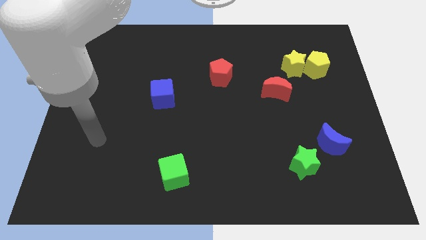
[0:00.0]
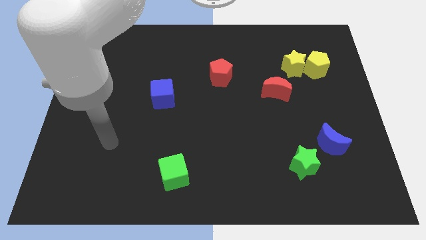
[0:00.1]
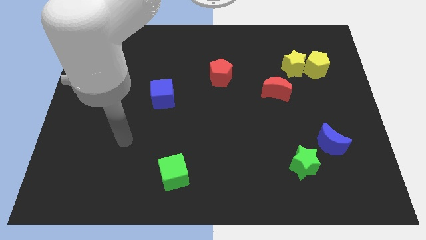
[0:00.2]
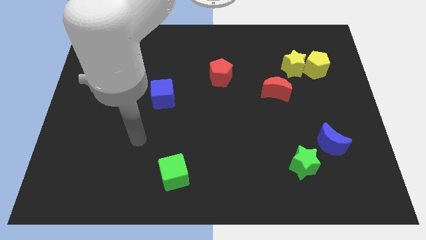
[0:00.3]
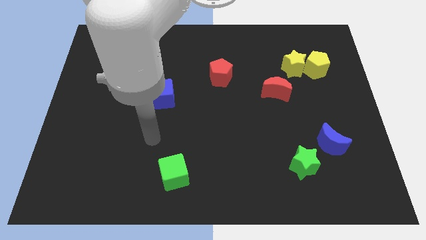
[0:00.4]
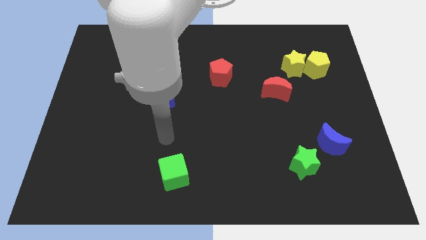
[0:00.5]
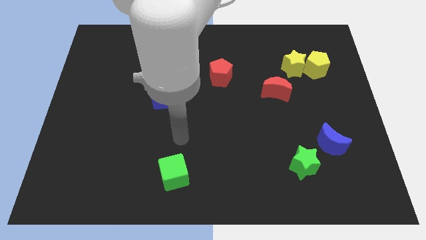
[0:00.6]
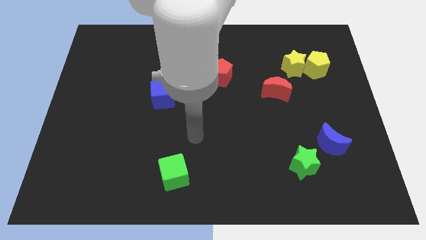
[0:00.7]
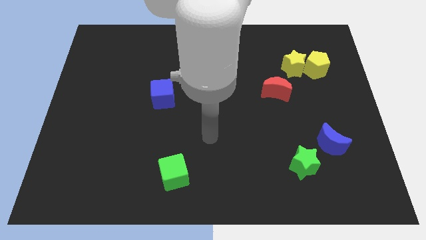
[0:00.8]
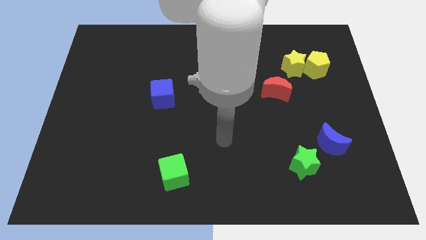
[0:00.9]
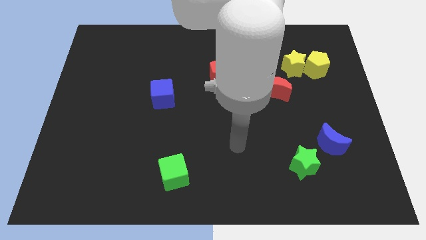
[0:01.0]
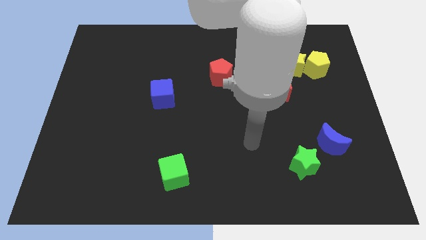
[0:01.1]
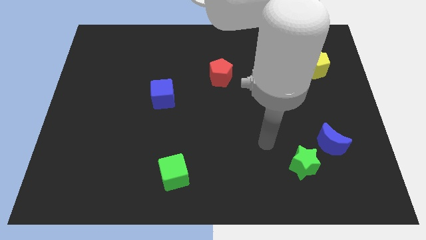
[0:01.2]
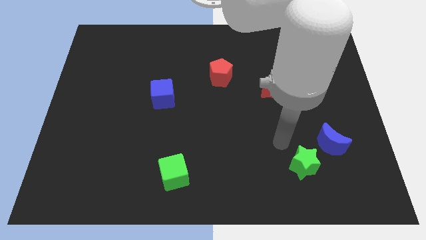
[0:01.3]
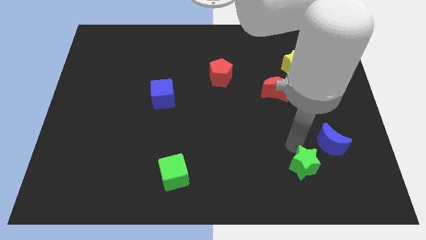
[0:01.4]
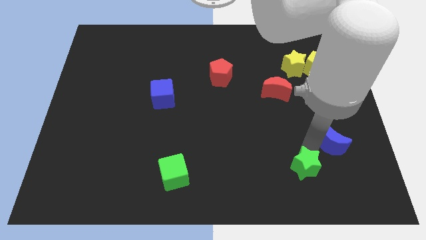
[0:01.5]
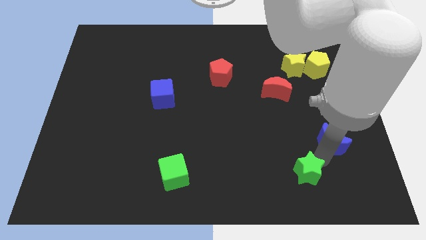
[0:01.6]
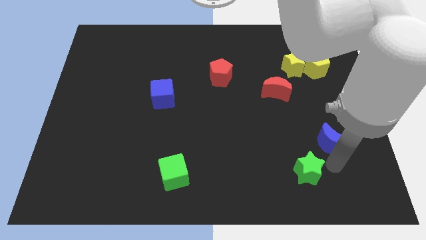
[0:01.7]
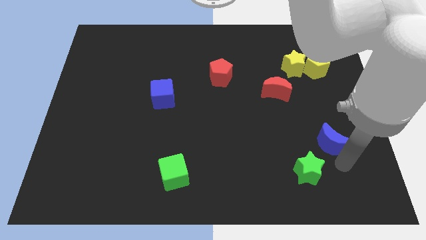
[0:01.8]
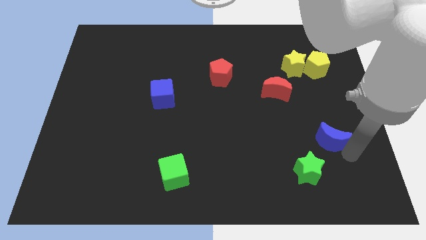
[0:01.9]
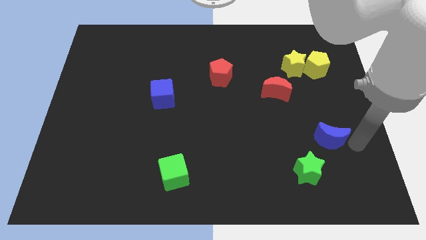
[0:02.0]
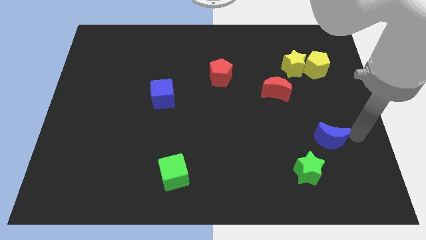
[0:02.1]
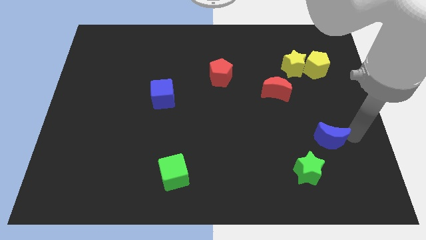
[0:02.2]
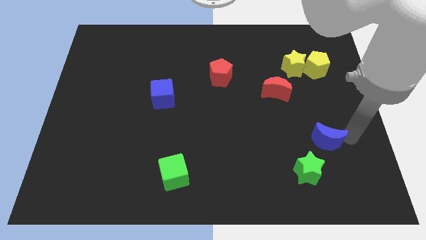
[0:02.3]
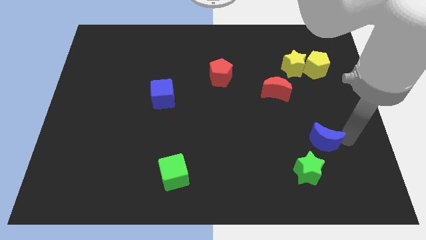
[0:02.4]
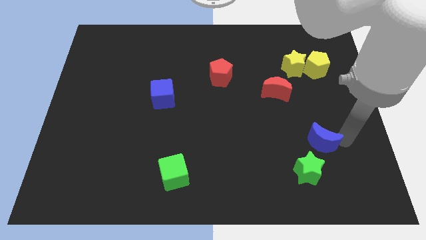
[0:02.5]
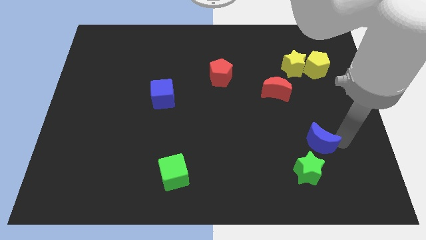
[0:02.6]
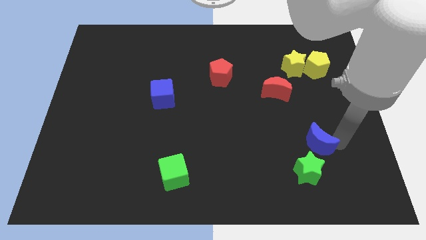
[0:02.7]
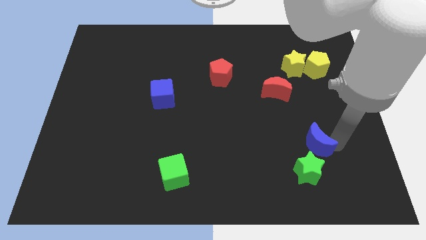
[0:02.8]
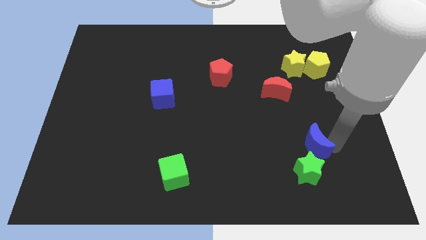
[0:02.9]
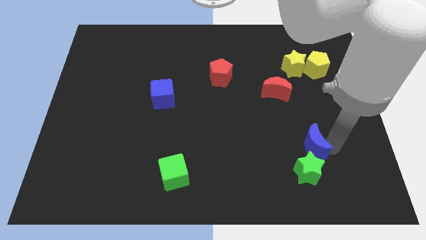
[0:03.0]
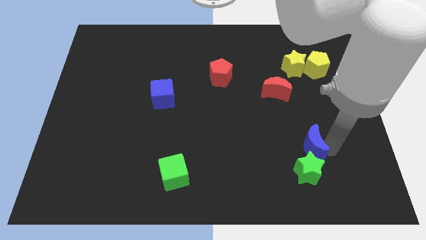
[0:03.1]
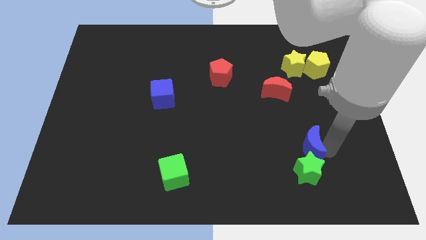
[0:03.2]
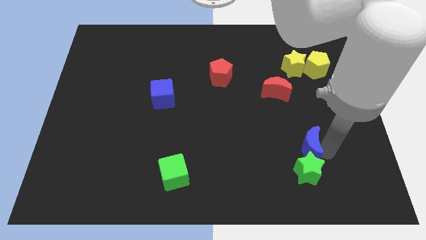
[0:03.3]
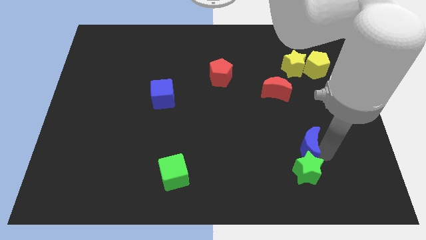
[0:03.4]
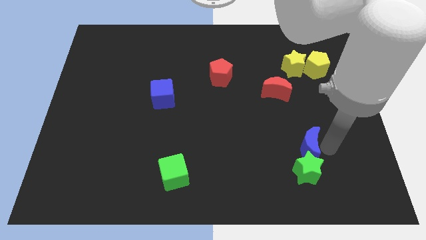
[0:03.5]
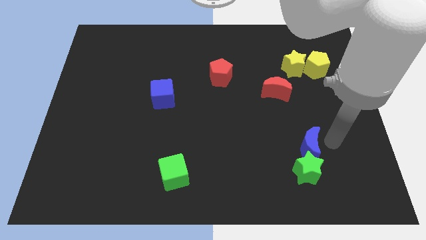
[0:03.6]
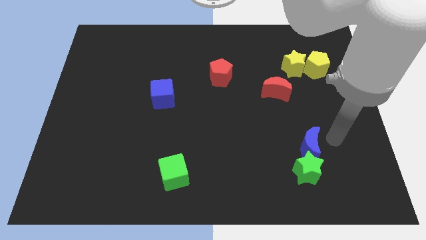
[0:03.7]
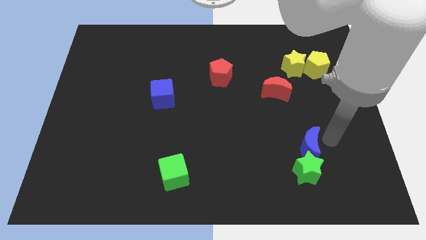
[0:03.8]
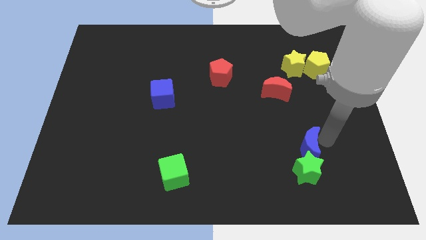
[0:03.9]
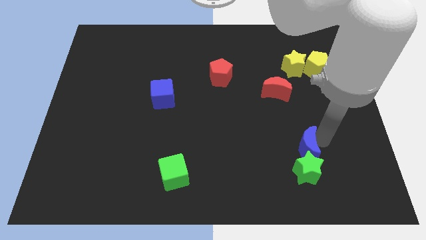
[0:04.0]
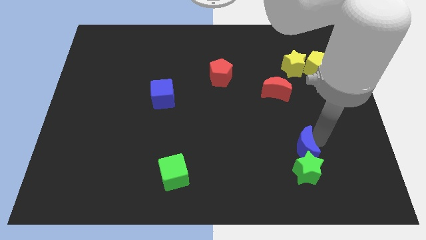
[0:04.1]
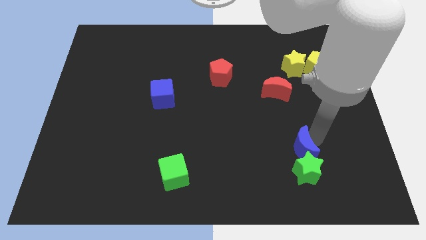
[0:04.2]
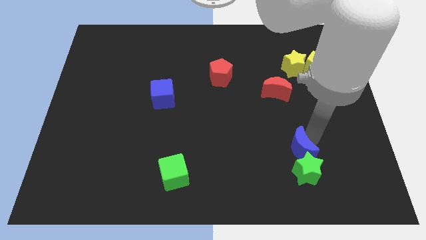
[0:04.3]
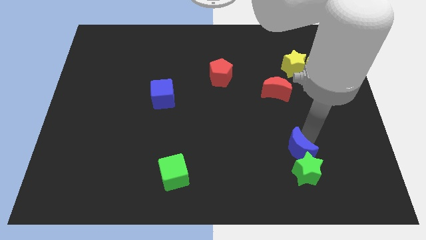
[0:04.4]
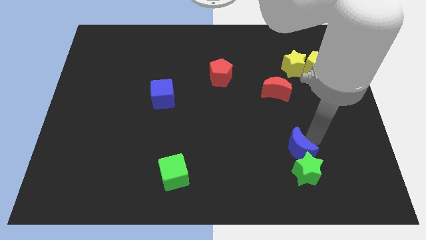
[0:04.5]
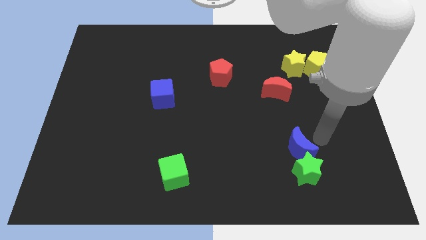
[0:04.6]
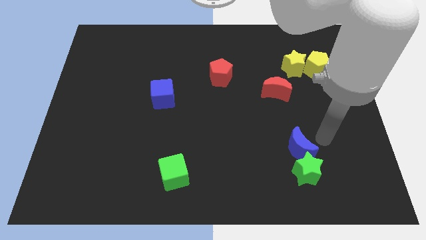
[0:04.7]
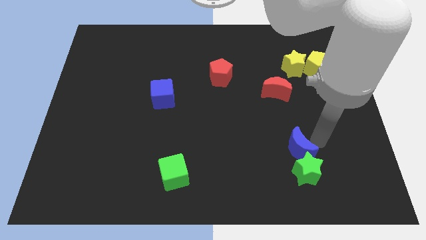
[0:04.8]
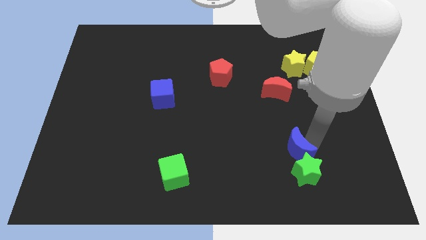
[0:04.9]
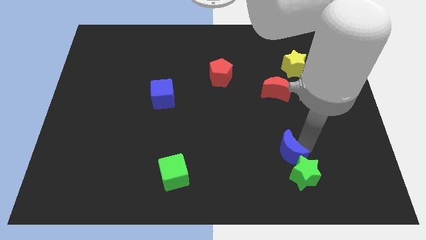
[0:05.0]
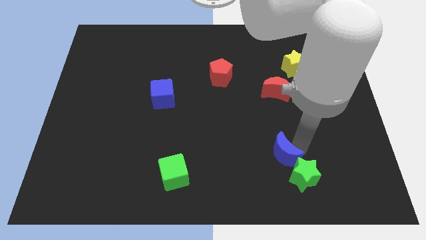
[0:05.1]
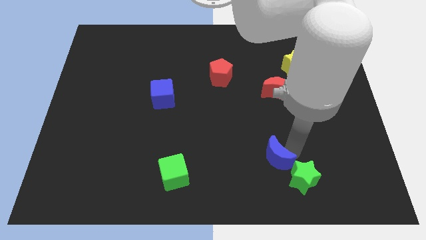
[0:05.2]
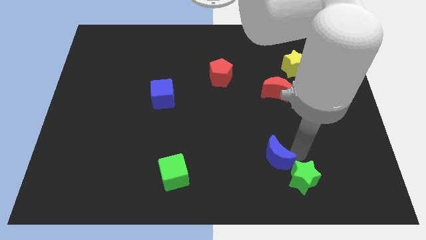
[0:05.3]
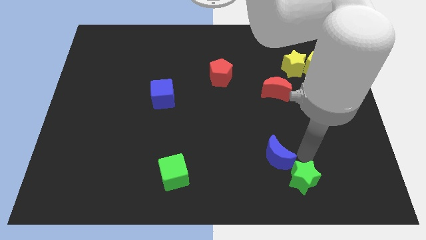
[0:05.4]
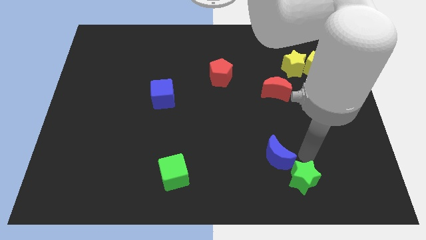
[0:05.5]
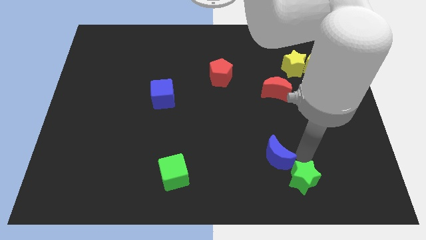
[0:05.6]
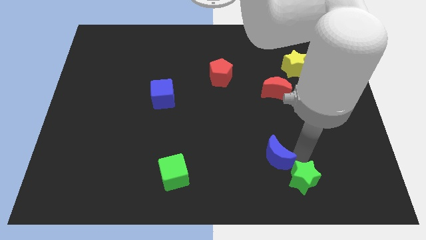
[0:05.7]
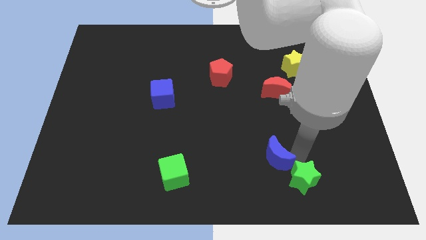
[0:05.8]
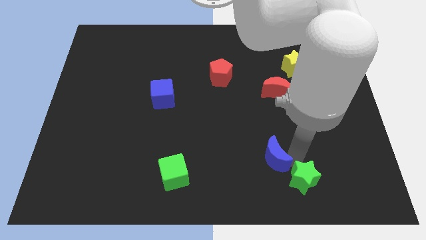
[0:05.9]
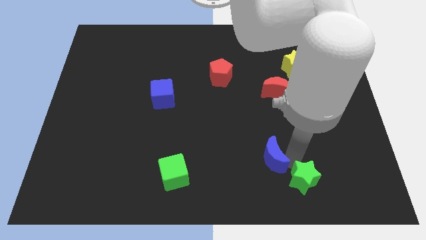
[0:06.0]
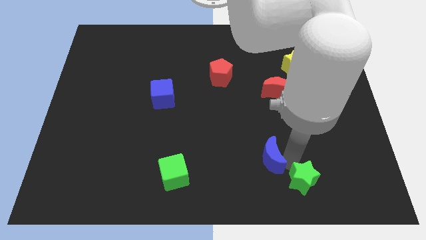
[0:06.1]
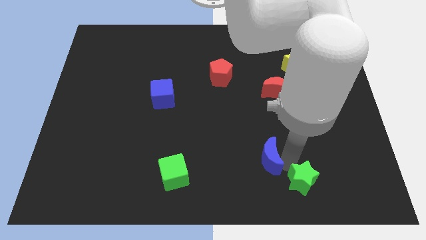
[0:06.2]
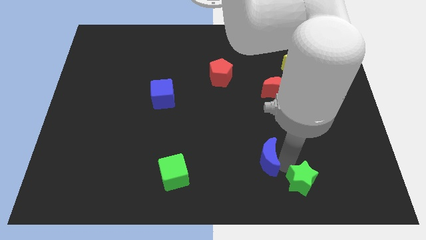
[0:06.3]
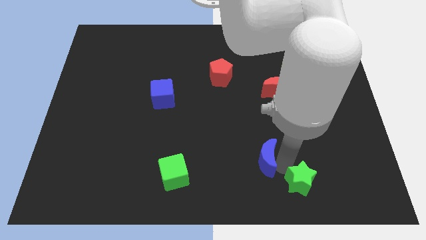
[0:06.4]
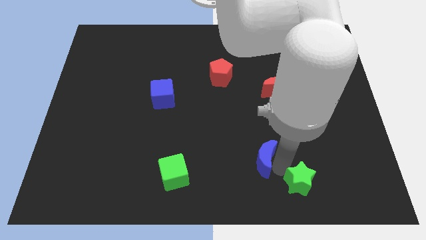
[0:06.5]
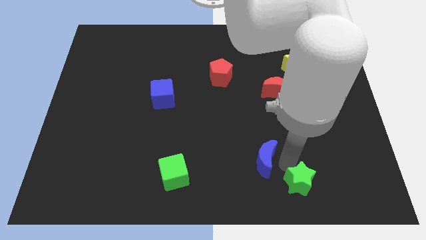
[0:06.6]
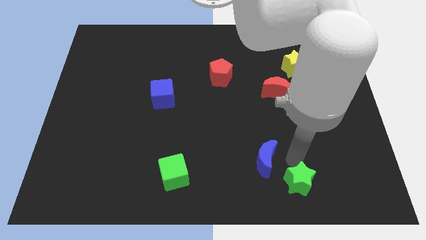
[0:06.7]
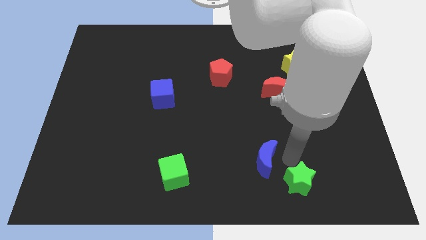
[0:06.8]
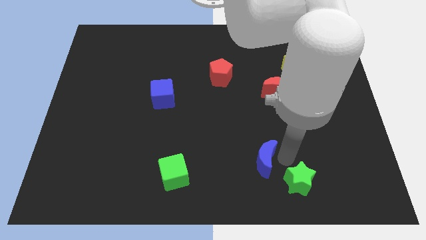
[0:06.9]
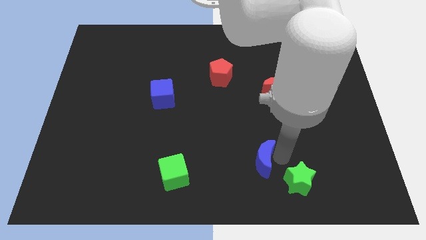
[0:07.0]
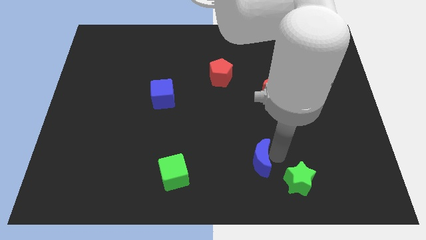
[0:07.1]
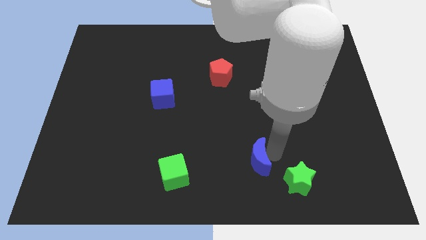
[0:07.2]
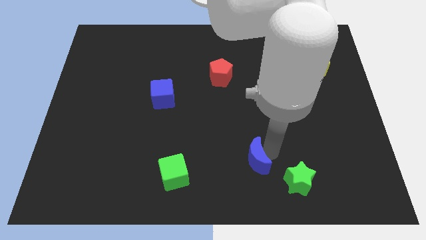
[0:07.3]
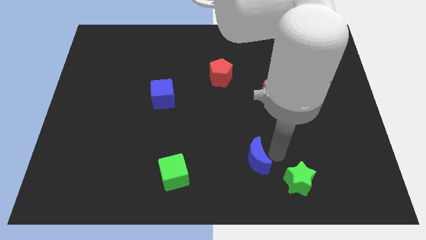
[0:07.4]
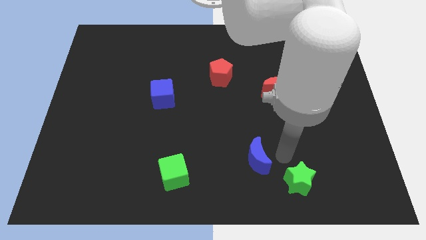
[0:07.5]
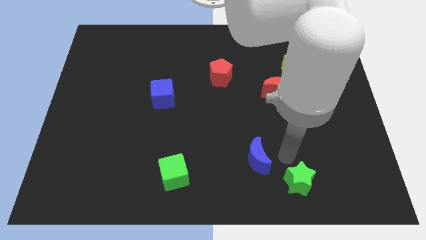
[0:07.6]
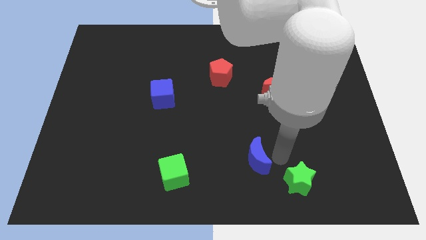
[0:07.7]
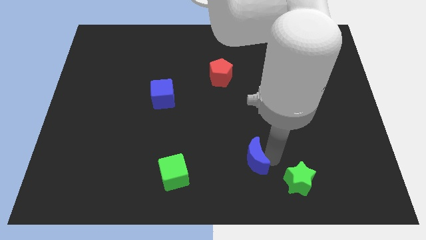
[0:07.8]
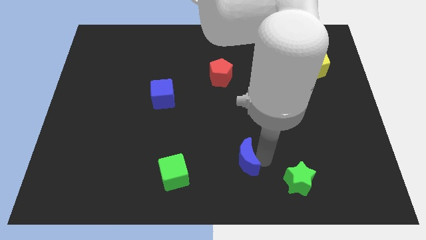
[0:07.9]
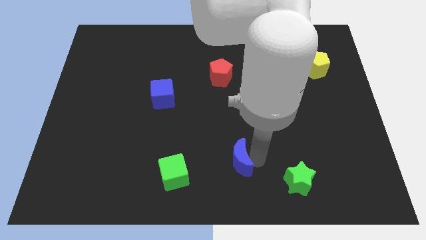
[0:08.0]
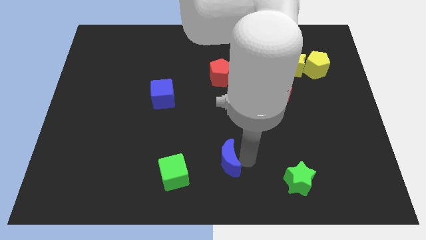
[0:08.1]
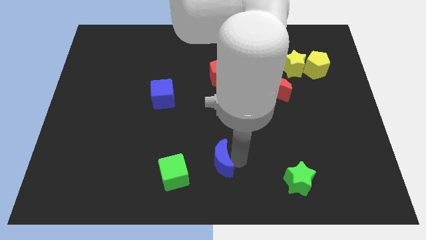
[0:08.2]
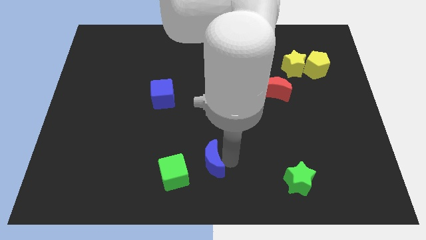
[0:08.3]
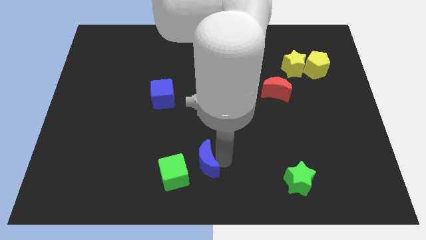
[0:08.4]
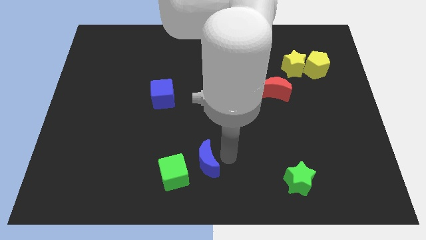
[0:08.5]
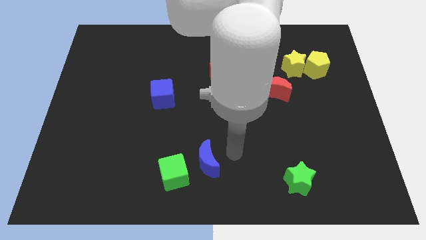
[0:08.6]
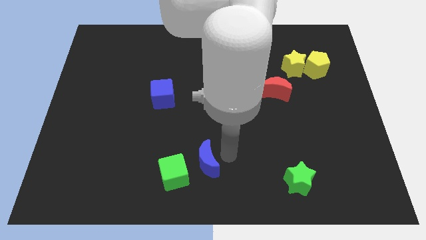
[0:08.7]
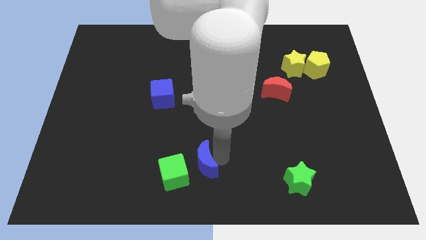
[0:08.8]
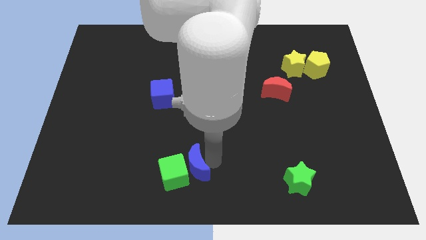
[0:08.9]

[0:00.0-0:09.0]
push the blue moon towards the green cube
